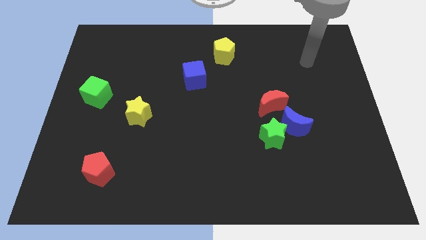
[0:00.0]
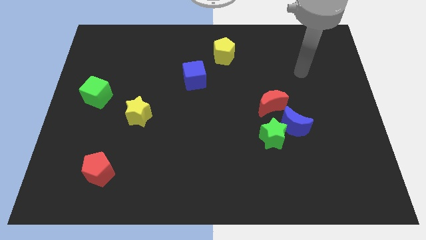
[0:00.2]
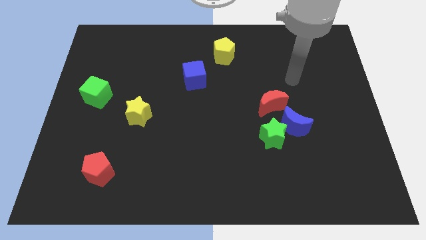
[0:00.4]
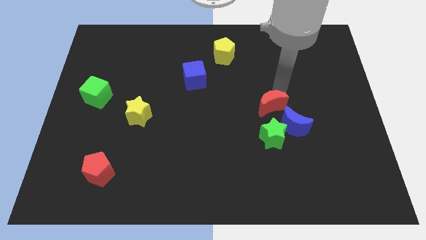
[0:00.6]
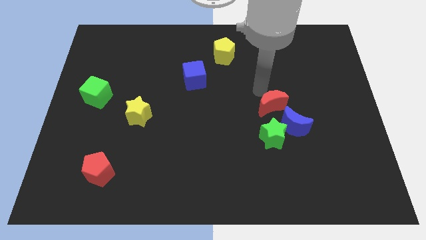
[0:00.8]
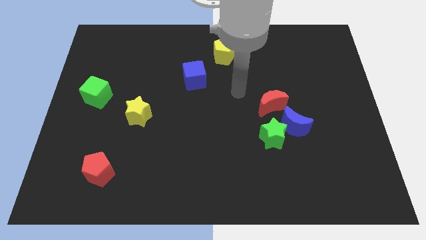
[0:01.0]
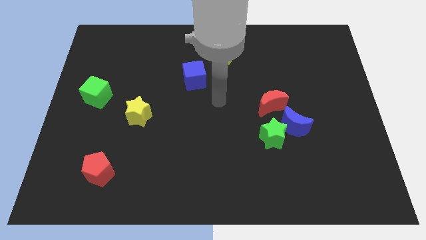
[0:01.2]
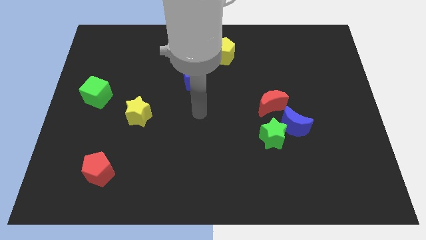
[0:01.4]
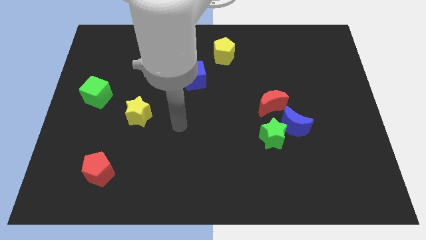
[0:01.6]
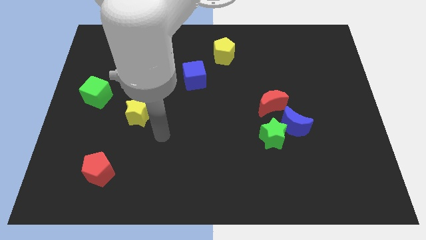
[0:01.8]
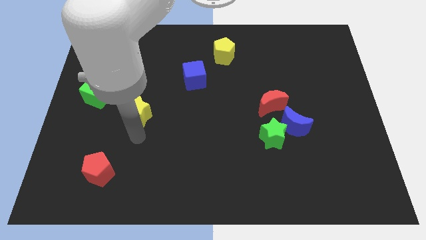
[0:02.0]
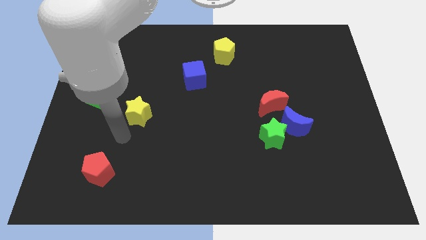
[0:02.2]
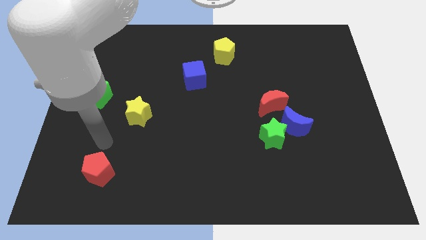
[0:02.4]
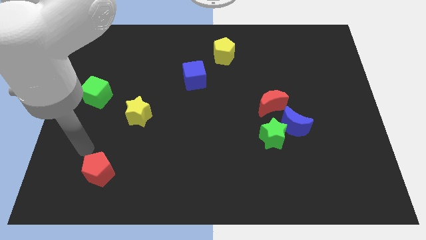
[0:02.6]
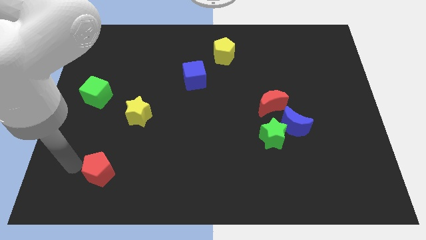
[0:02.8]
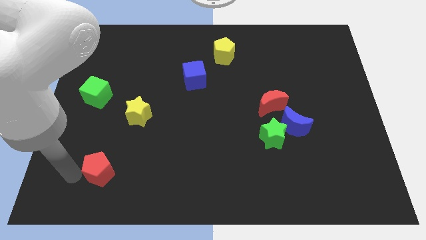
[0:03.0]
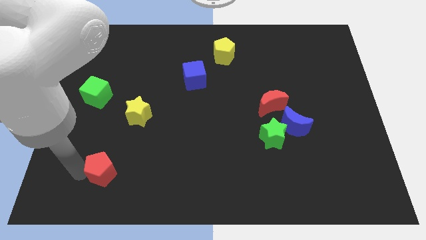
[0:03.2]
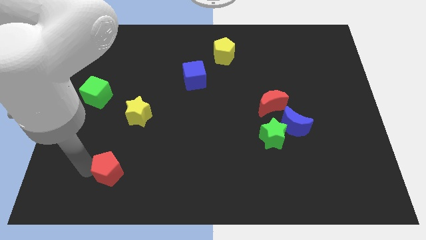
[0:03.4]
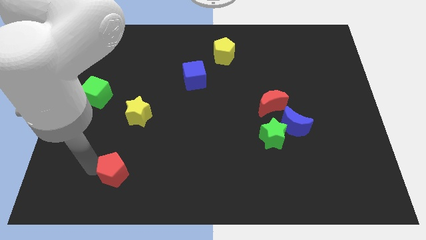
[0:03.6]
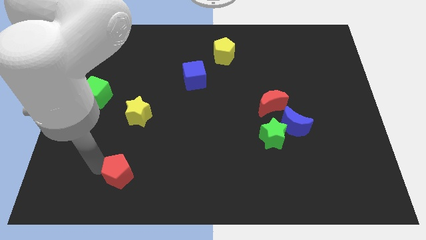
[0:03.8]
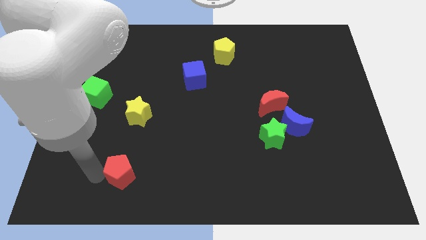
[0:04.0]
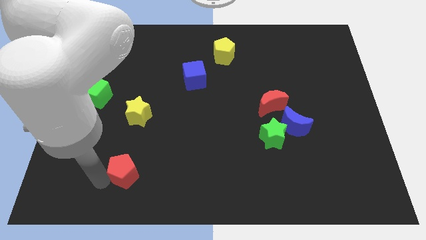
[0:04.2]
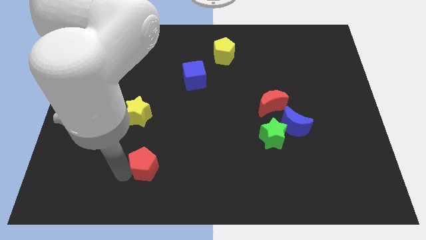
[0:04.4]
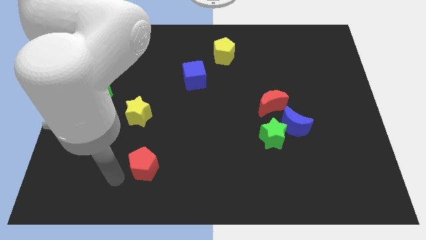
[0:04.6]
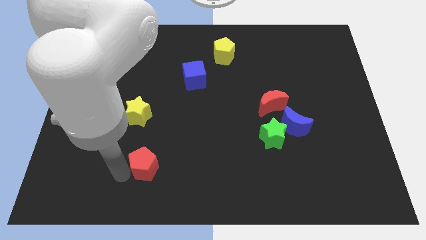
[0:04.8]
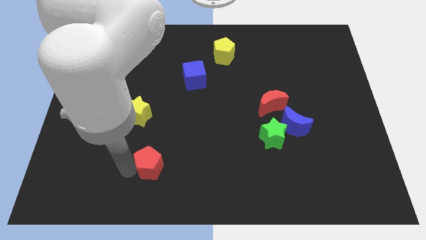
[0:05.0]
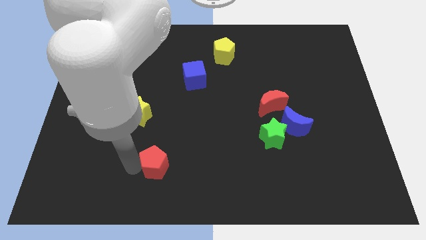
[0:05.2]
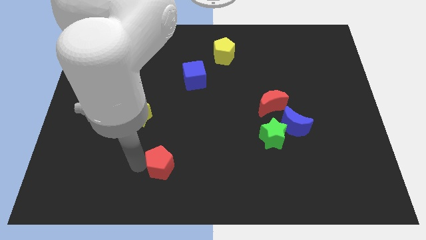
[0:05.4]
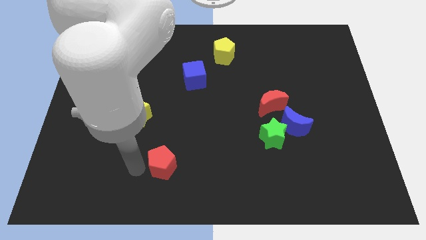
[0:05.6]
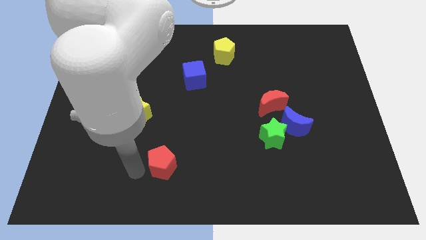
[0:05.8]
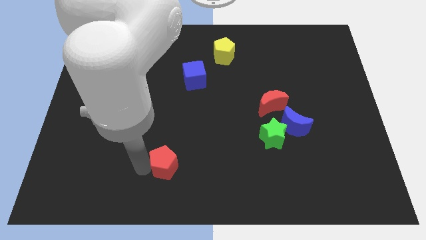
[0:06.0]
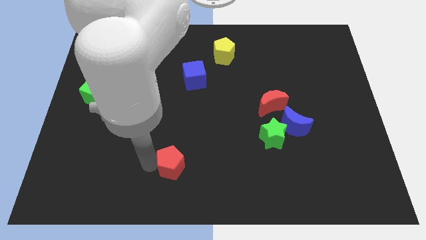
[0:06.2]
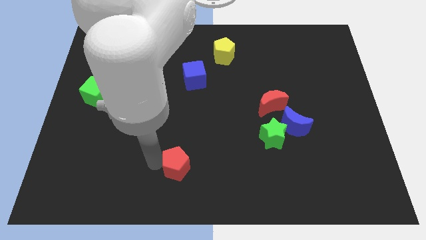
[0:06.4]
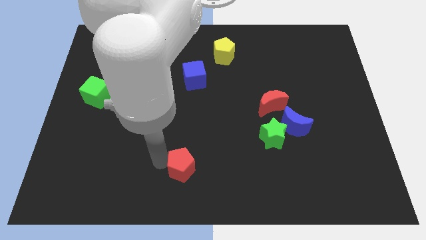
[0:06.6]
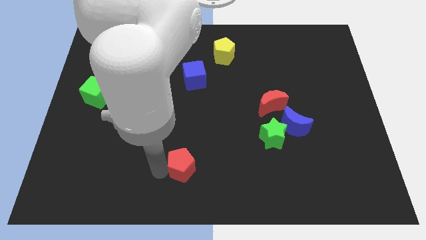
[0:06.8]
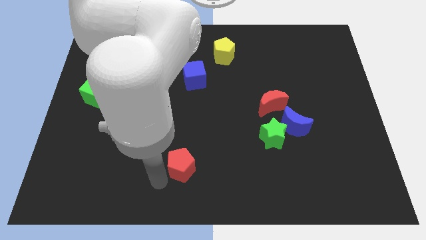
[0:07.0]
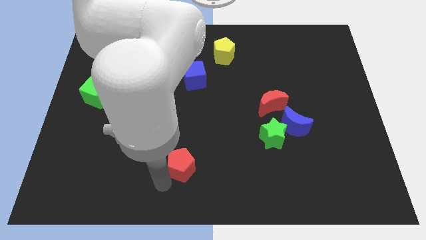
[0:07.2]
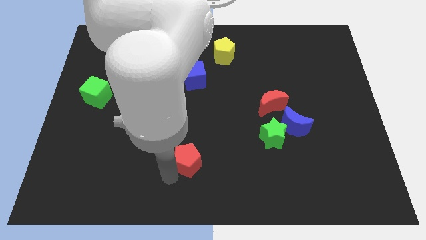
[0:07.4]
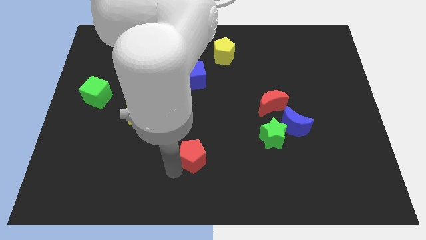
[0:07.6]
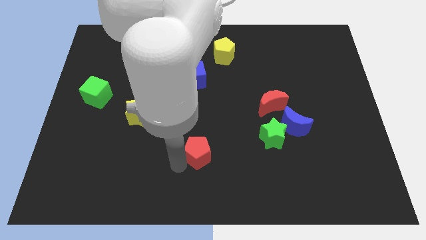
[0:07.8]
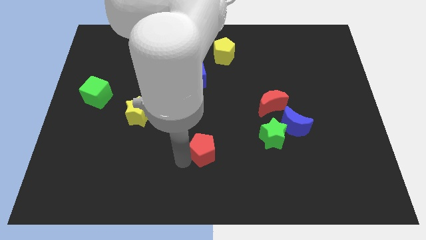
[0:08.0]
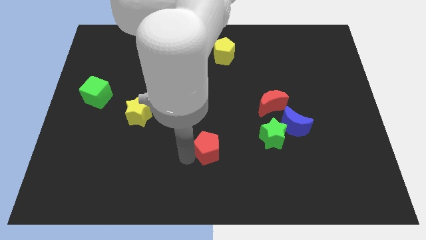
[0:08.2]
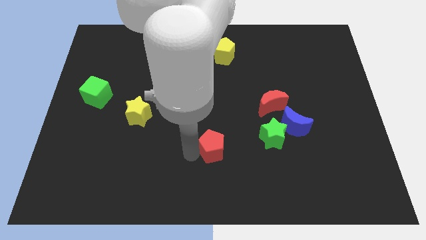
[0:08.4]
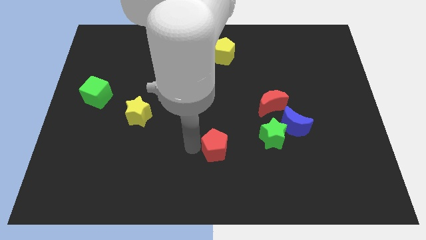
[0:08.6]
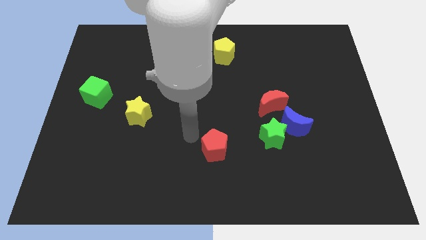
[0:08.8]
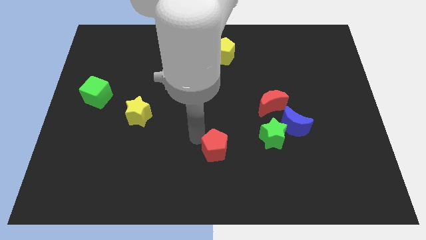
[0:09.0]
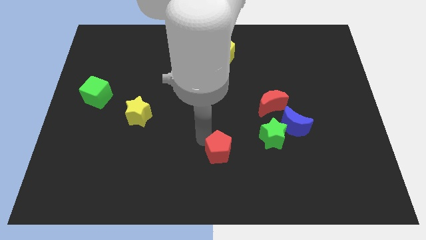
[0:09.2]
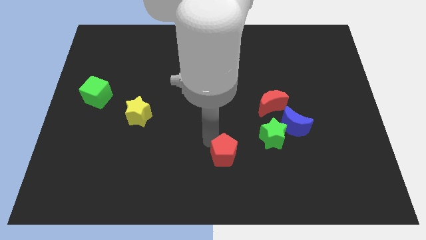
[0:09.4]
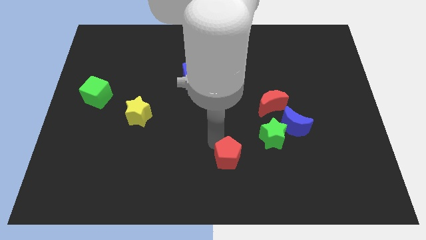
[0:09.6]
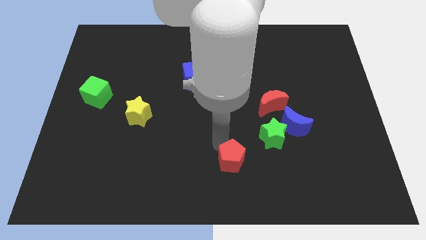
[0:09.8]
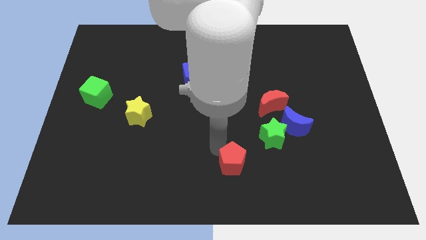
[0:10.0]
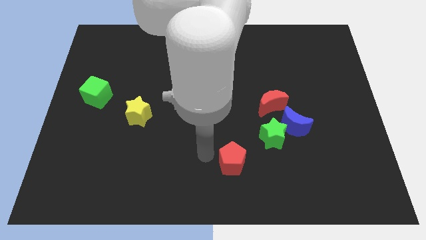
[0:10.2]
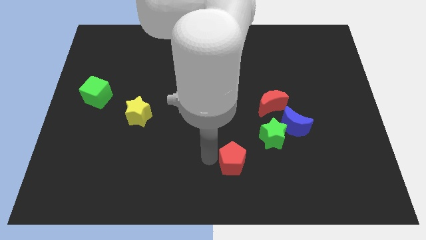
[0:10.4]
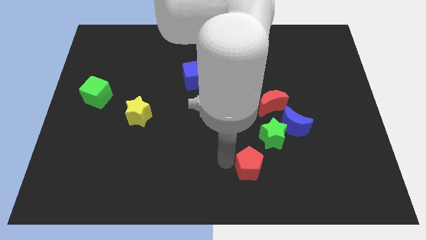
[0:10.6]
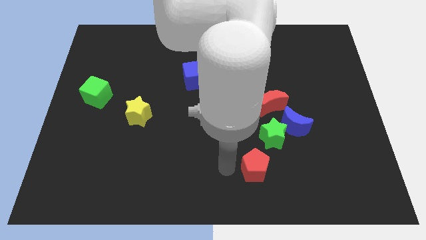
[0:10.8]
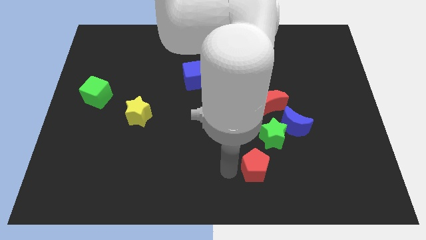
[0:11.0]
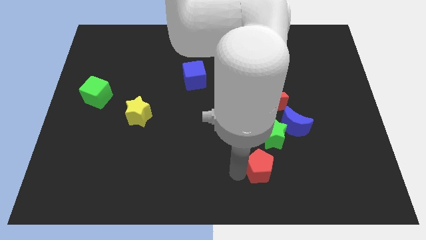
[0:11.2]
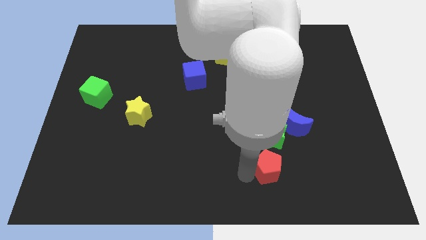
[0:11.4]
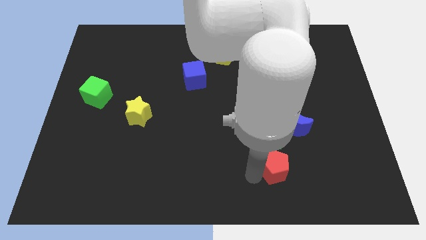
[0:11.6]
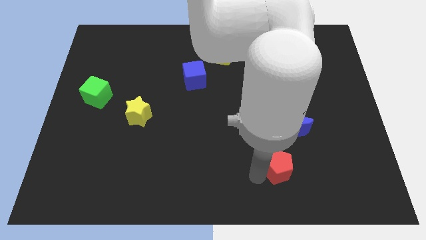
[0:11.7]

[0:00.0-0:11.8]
slide the red pentagon below the blue moon

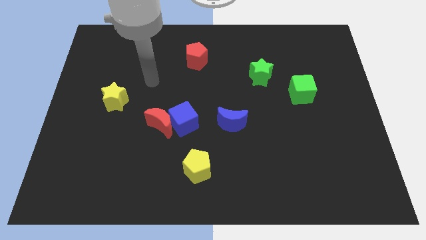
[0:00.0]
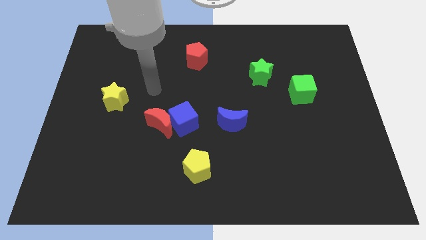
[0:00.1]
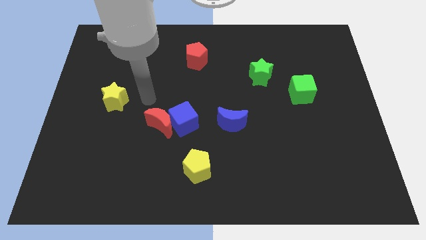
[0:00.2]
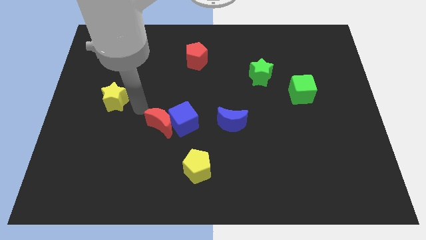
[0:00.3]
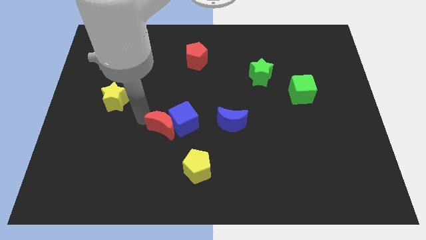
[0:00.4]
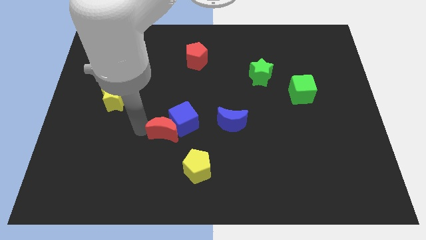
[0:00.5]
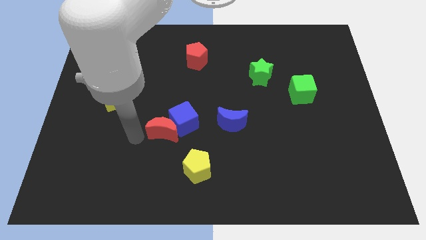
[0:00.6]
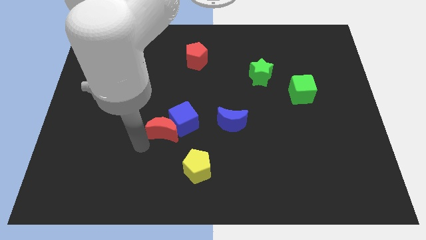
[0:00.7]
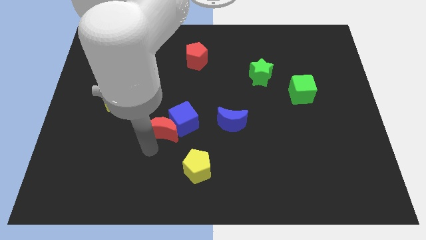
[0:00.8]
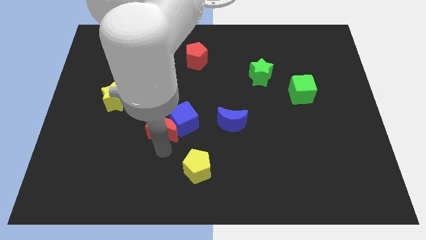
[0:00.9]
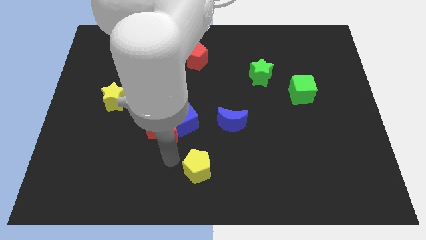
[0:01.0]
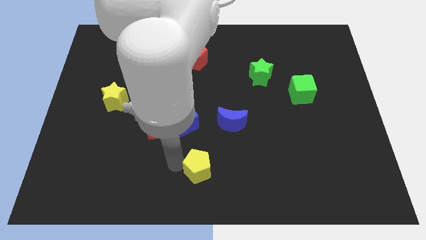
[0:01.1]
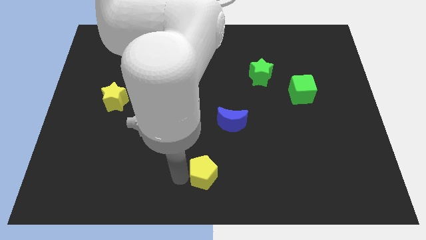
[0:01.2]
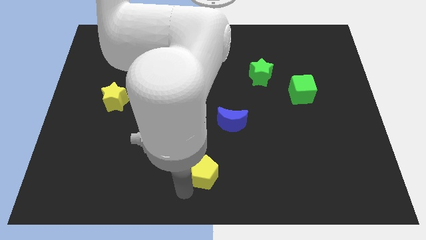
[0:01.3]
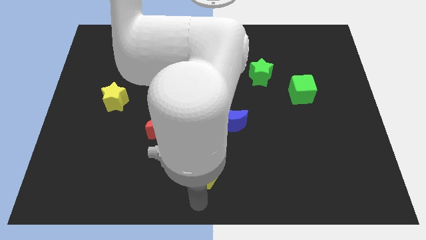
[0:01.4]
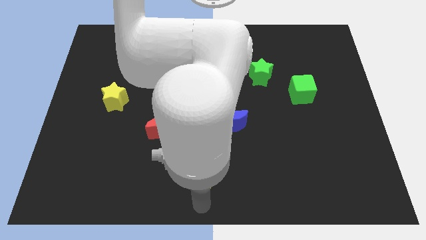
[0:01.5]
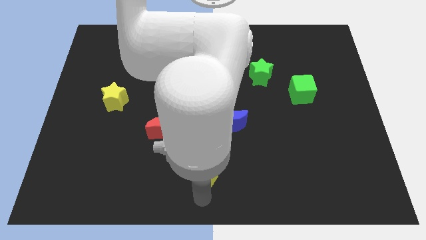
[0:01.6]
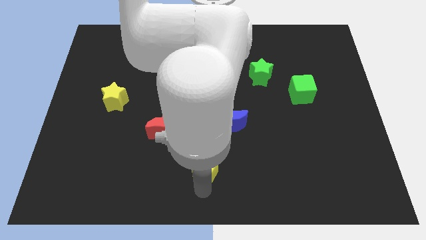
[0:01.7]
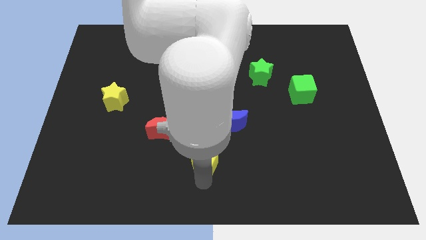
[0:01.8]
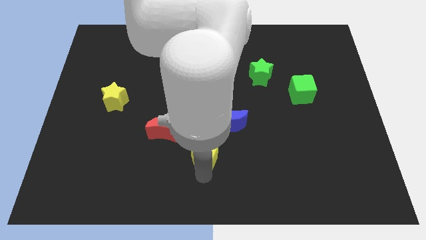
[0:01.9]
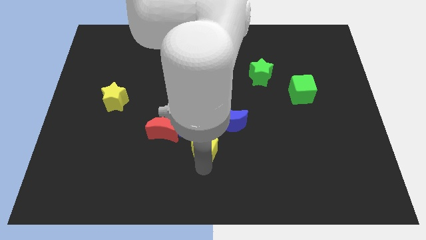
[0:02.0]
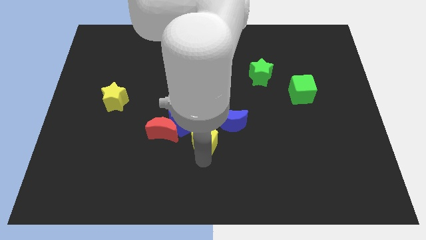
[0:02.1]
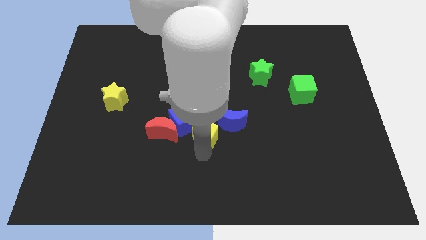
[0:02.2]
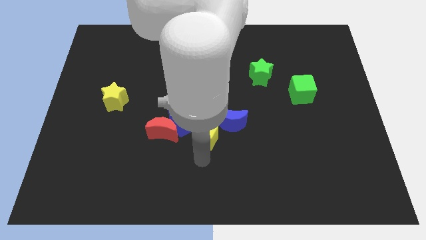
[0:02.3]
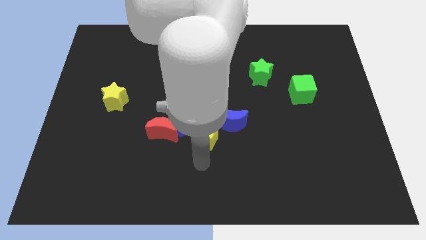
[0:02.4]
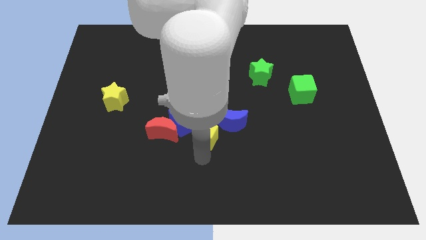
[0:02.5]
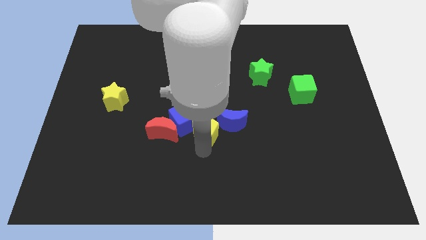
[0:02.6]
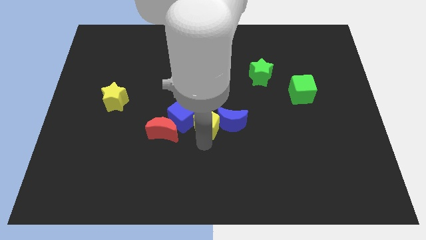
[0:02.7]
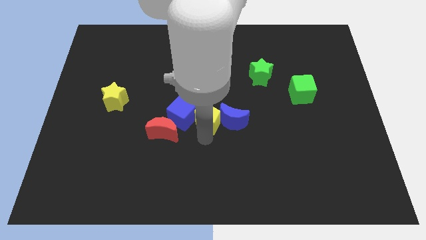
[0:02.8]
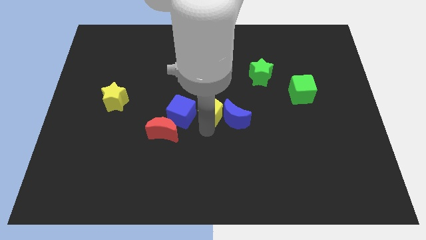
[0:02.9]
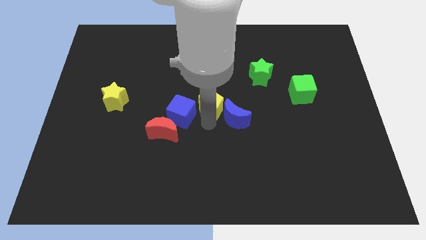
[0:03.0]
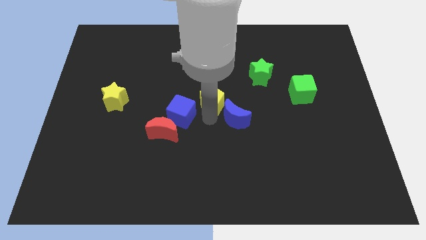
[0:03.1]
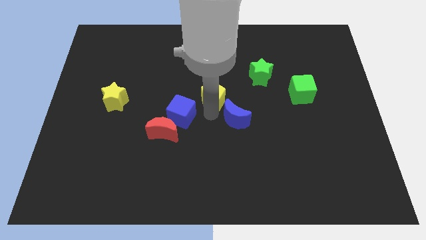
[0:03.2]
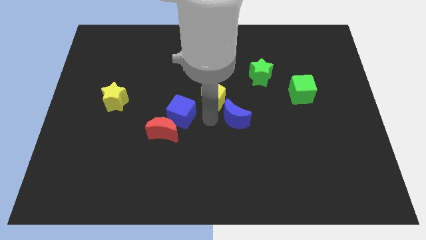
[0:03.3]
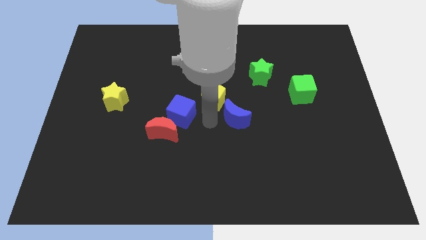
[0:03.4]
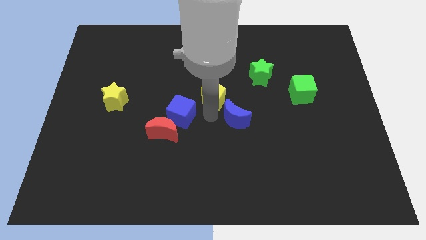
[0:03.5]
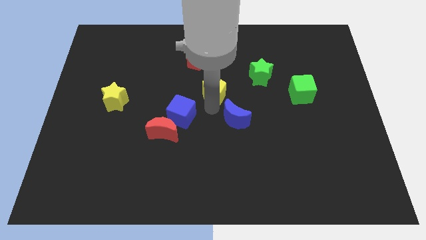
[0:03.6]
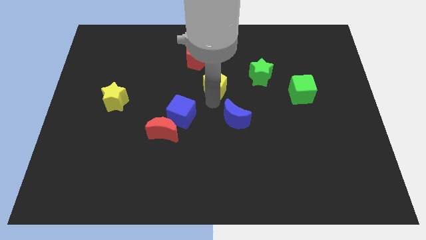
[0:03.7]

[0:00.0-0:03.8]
push the yellow pentagon diagonally down and to the right of the red pentagon
